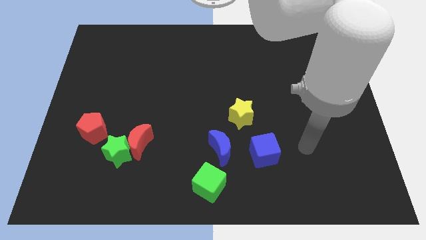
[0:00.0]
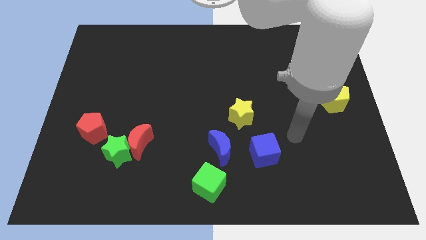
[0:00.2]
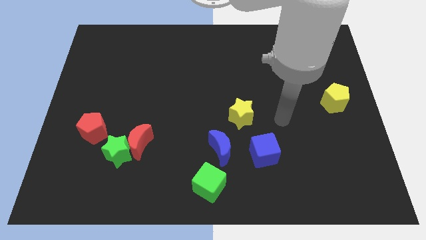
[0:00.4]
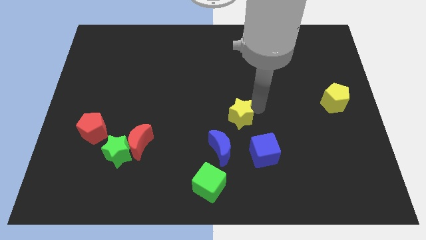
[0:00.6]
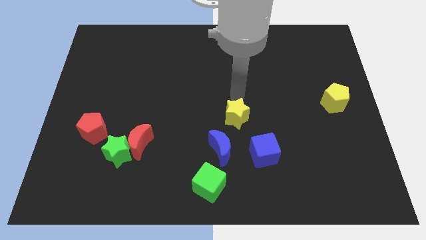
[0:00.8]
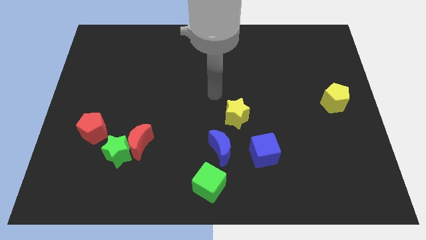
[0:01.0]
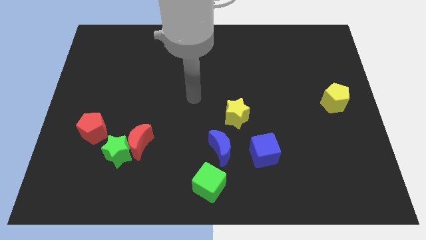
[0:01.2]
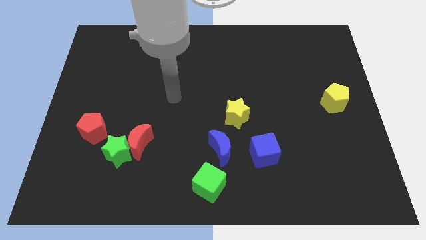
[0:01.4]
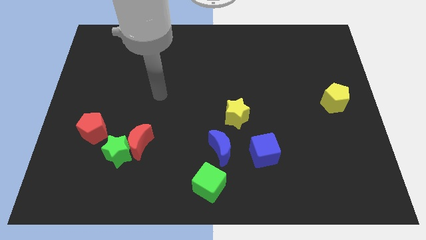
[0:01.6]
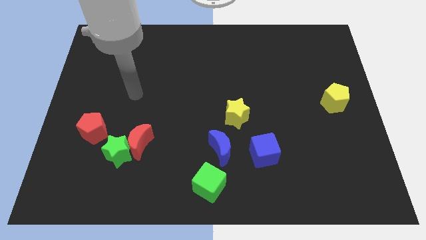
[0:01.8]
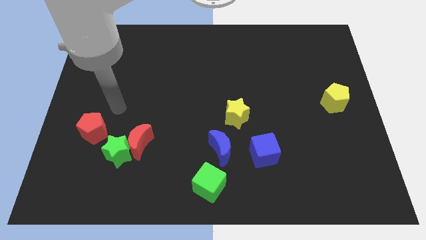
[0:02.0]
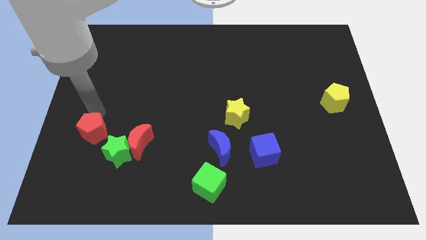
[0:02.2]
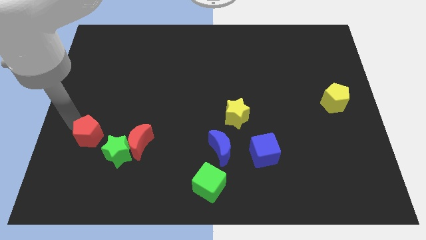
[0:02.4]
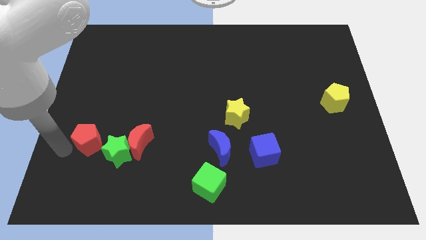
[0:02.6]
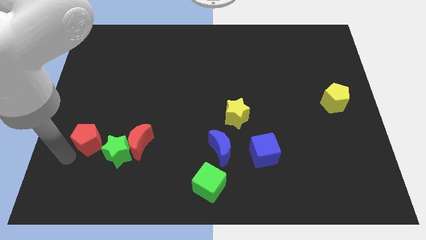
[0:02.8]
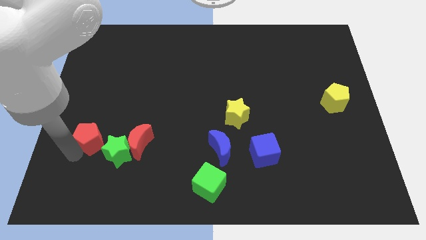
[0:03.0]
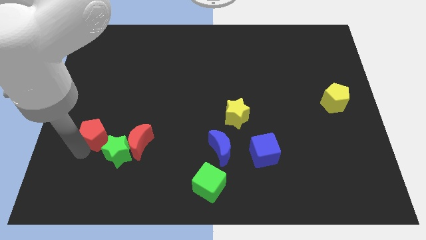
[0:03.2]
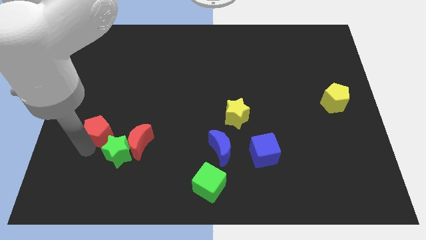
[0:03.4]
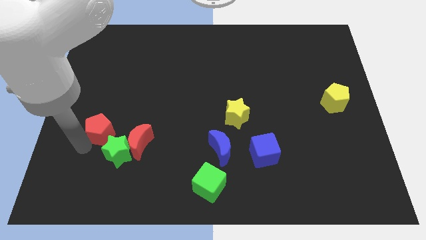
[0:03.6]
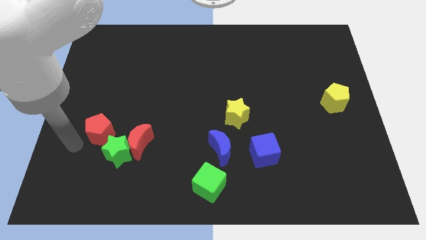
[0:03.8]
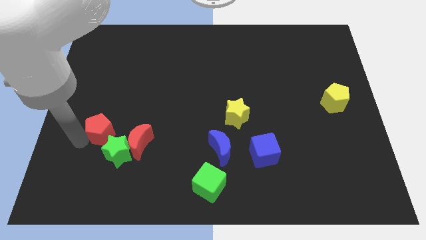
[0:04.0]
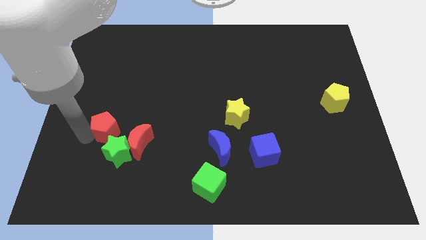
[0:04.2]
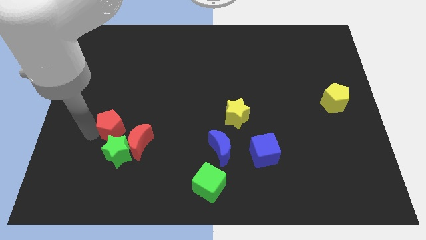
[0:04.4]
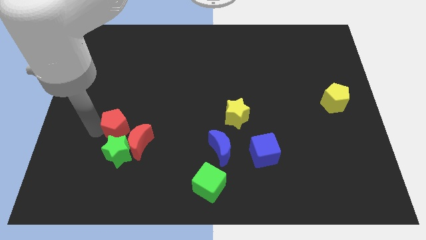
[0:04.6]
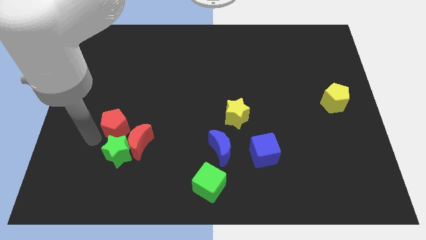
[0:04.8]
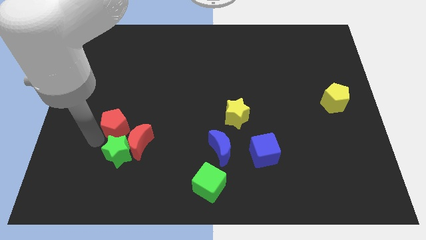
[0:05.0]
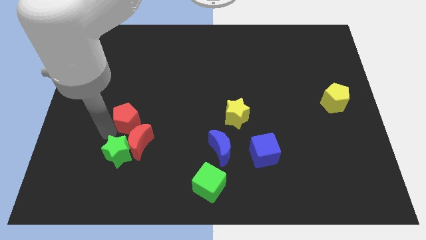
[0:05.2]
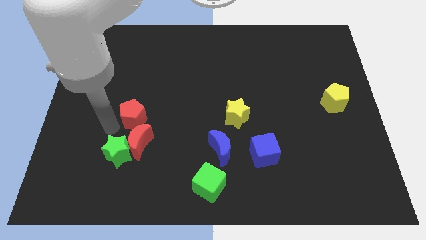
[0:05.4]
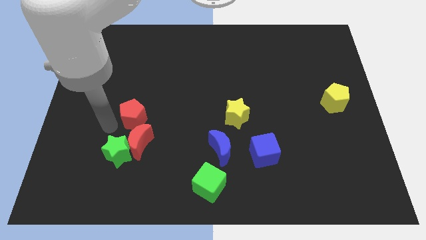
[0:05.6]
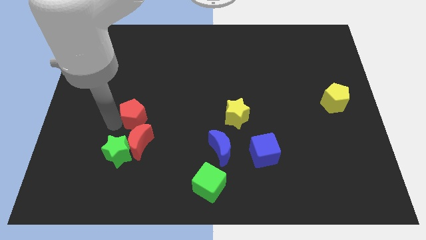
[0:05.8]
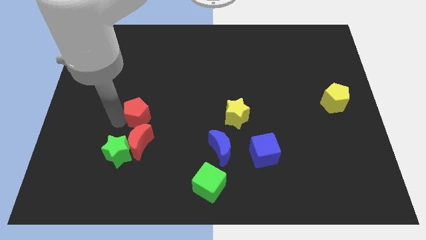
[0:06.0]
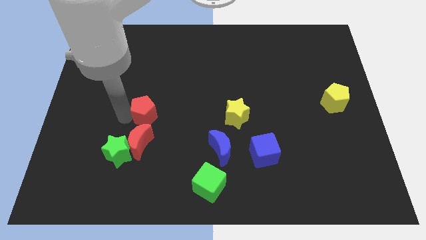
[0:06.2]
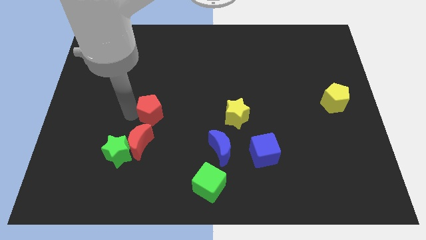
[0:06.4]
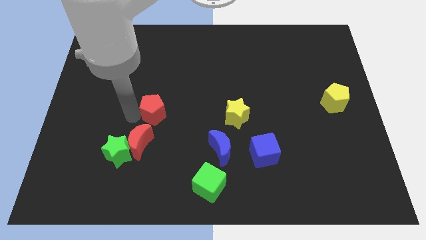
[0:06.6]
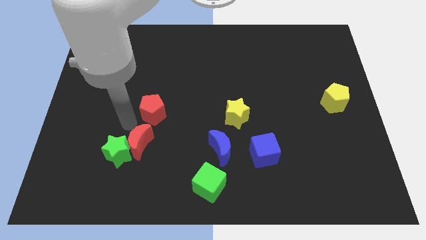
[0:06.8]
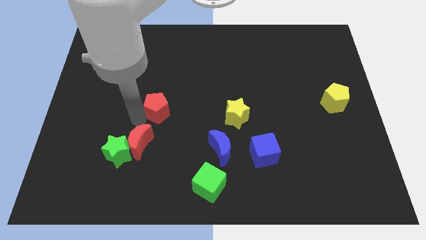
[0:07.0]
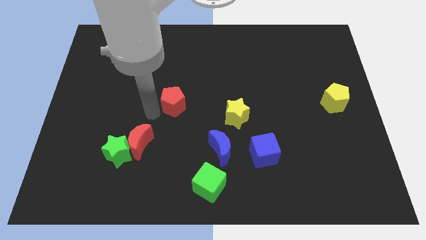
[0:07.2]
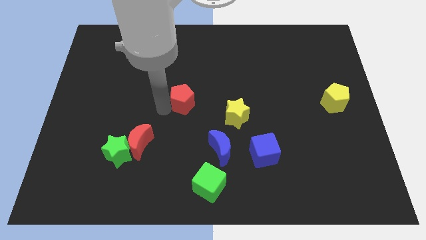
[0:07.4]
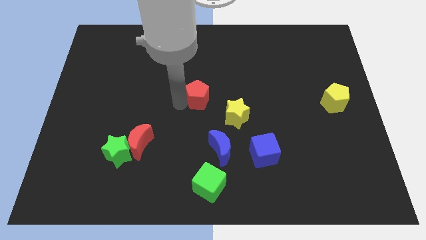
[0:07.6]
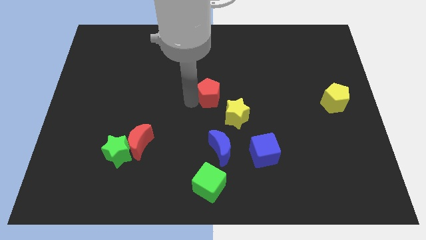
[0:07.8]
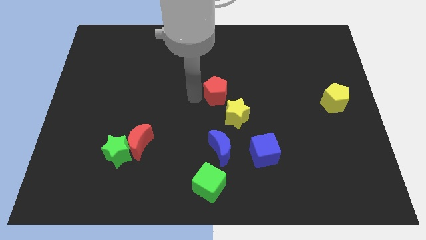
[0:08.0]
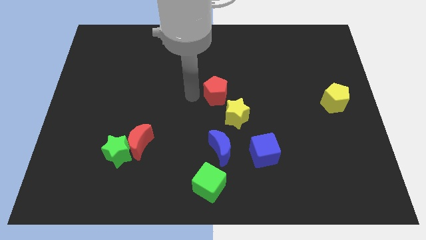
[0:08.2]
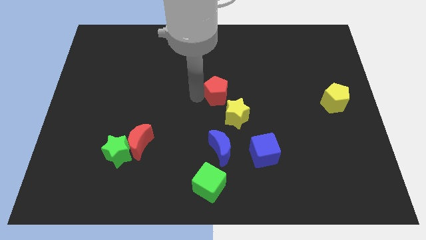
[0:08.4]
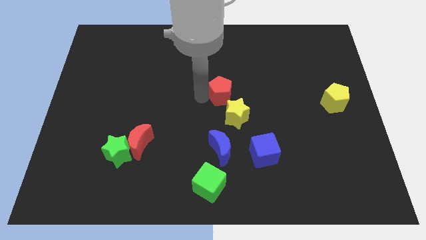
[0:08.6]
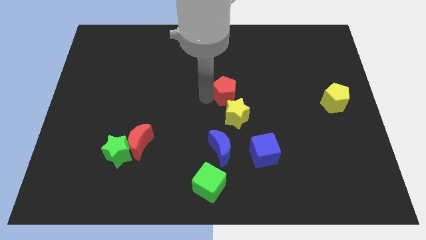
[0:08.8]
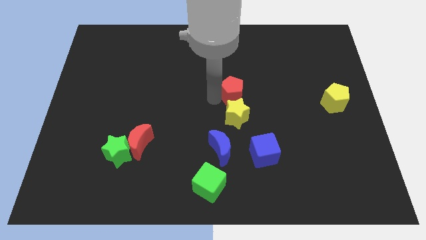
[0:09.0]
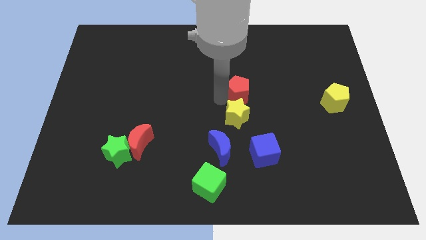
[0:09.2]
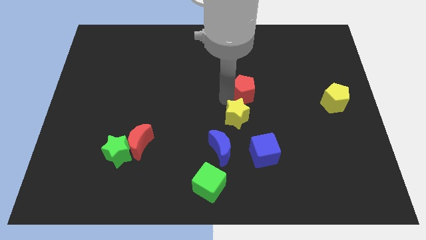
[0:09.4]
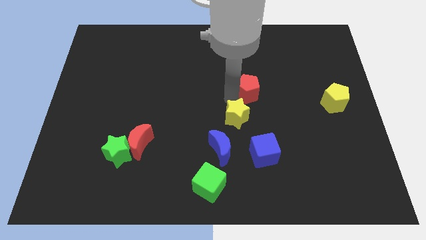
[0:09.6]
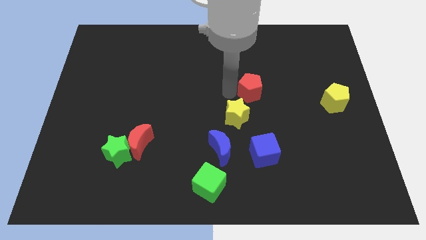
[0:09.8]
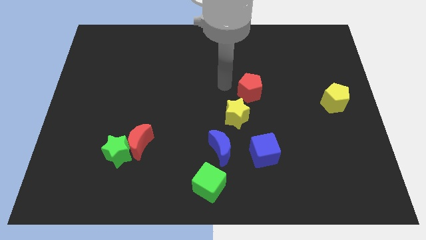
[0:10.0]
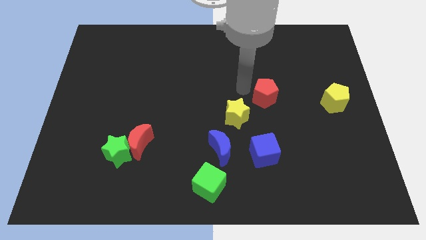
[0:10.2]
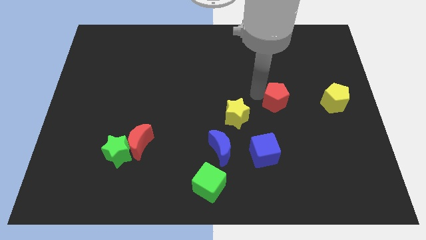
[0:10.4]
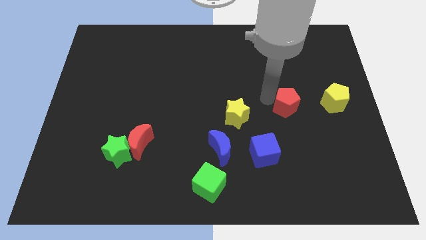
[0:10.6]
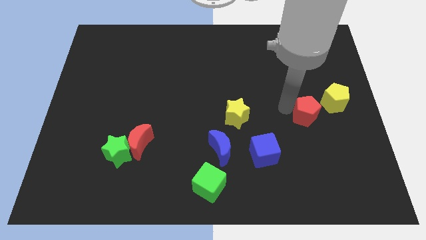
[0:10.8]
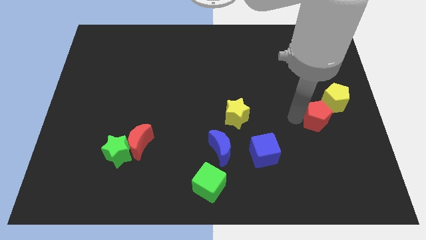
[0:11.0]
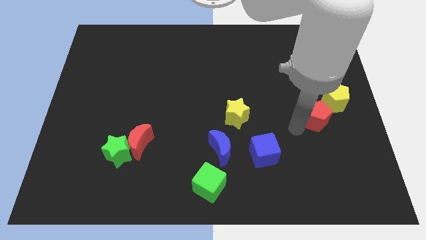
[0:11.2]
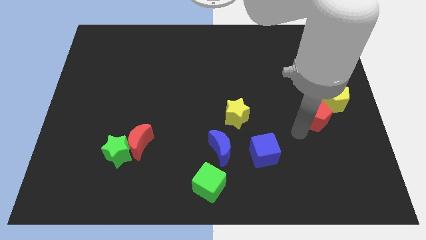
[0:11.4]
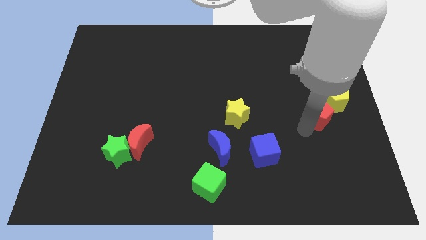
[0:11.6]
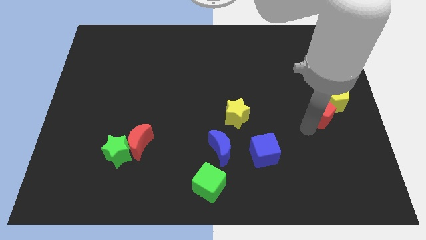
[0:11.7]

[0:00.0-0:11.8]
move the red pentagon towards the yellow pentagon

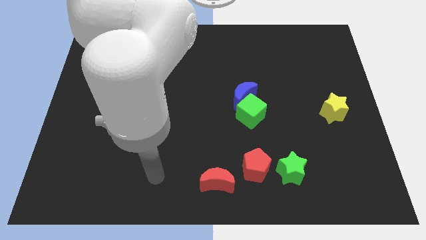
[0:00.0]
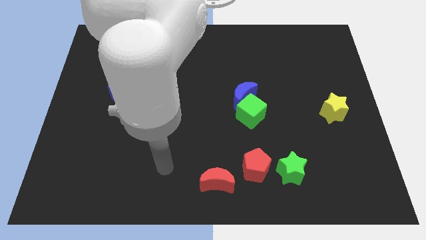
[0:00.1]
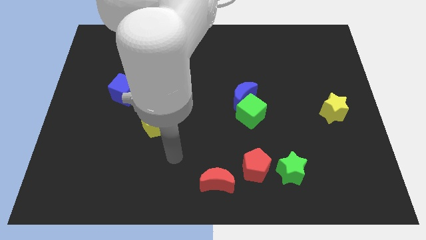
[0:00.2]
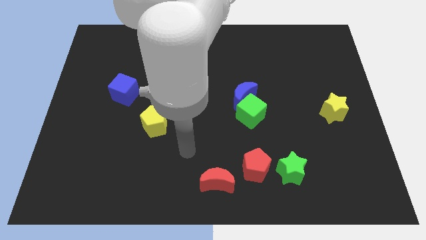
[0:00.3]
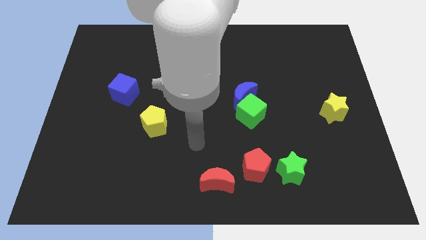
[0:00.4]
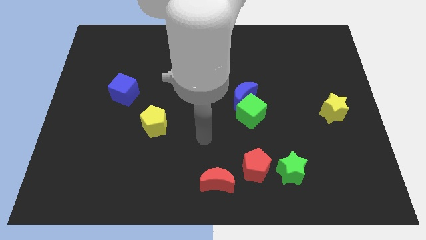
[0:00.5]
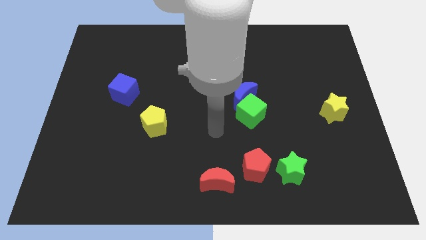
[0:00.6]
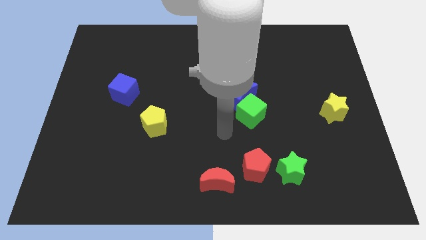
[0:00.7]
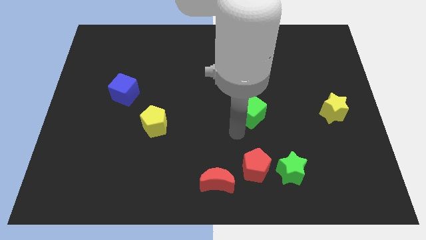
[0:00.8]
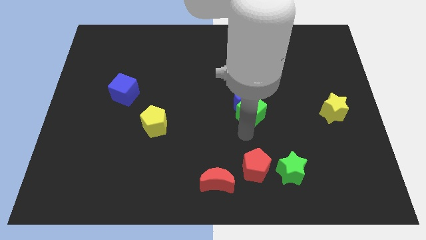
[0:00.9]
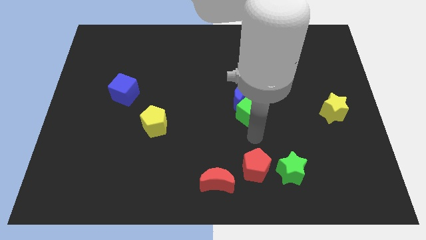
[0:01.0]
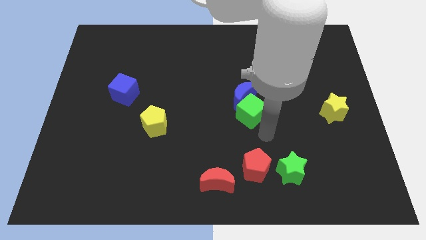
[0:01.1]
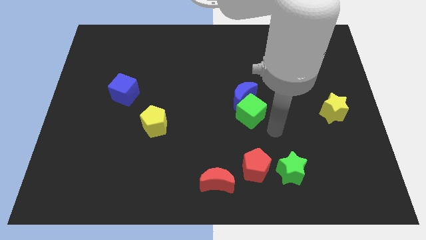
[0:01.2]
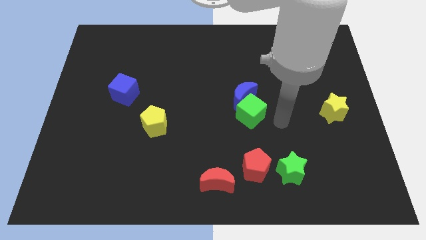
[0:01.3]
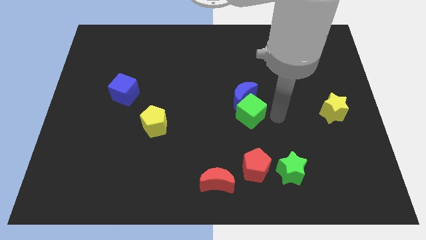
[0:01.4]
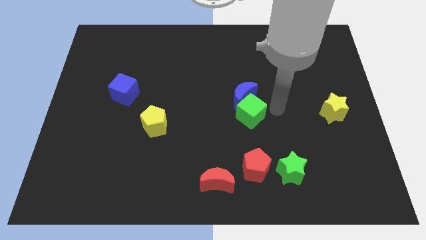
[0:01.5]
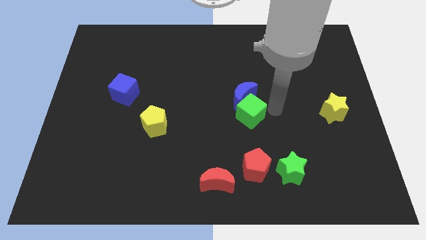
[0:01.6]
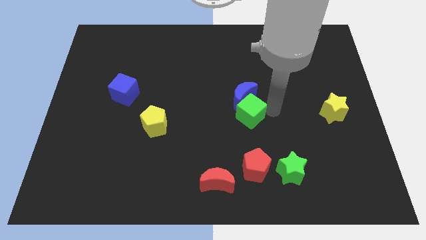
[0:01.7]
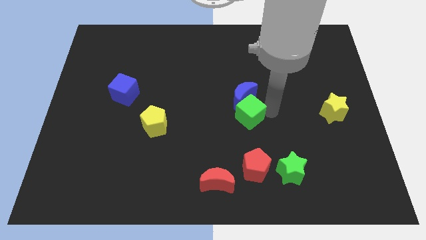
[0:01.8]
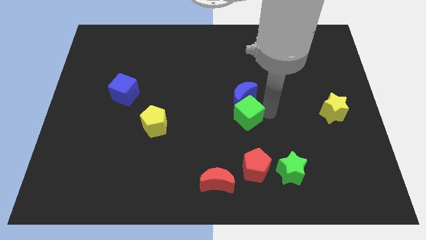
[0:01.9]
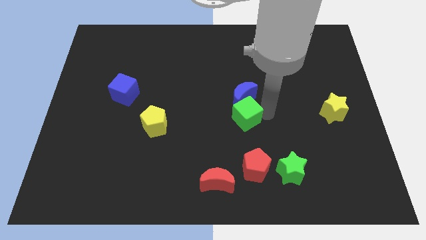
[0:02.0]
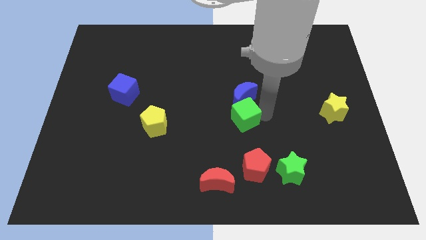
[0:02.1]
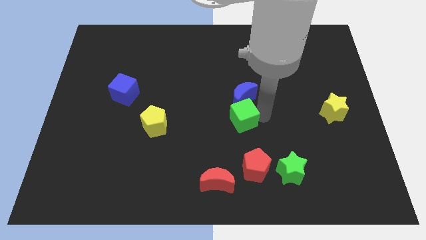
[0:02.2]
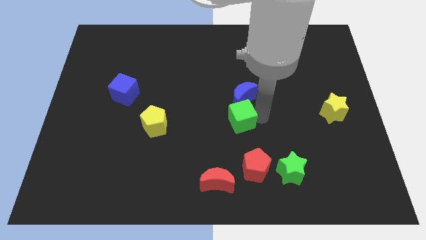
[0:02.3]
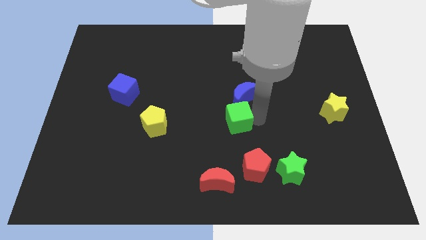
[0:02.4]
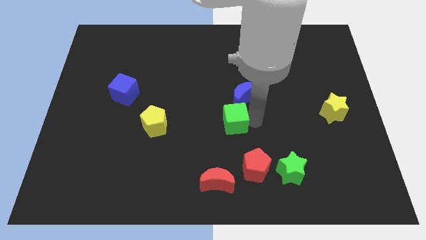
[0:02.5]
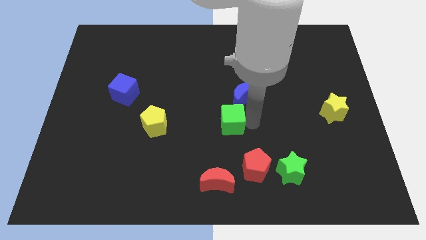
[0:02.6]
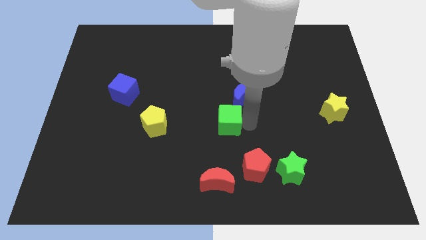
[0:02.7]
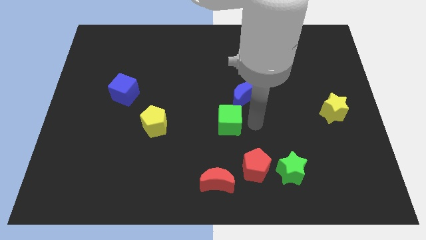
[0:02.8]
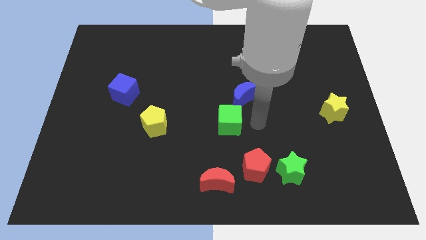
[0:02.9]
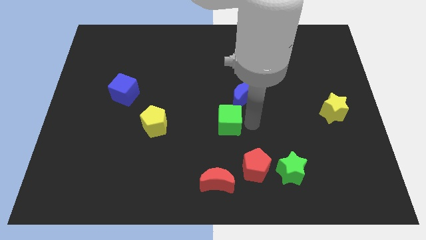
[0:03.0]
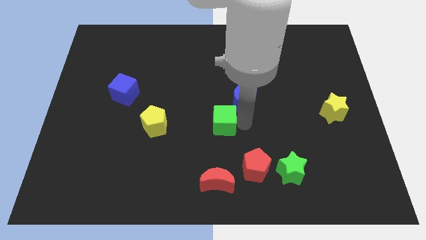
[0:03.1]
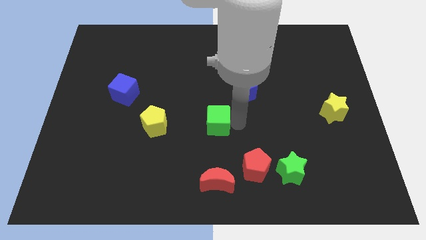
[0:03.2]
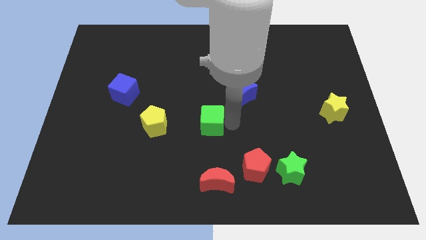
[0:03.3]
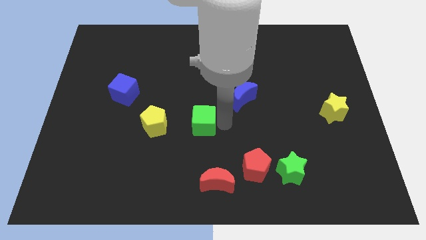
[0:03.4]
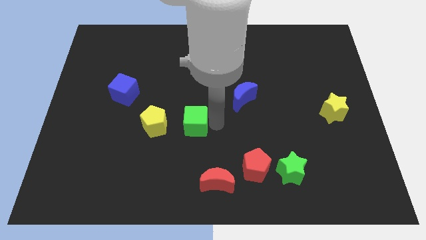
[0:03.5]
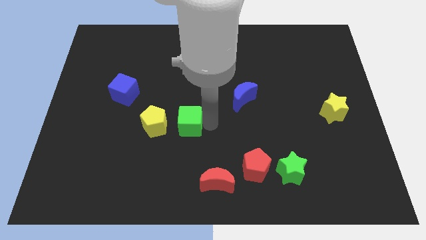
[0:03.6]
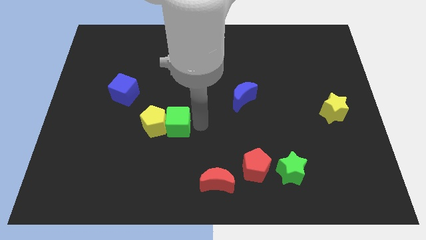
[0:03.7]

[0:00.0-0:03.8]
slide the green cube next to the yellow pentagon
